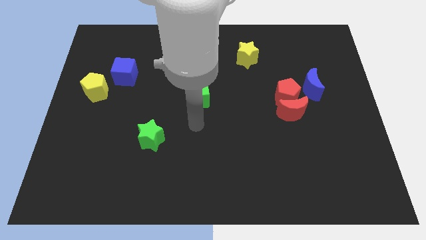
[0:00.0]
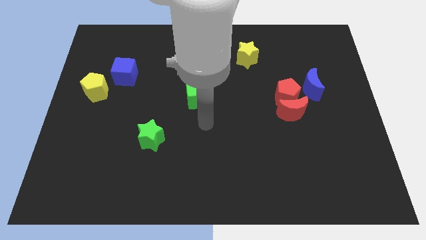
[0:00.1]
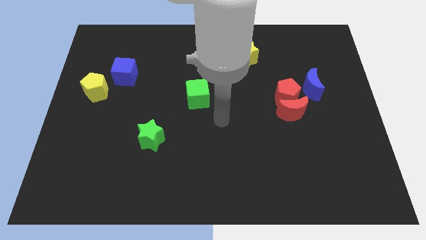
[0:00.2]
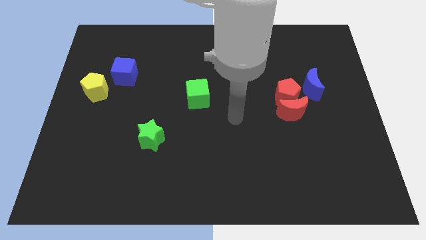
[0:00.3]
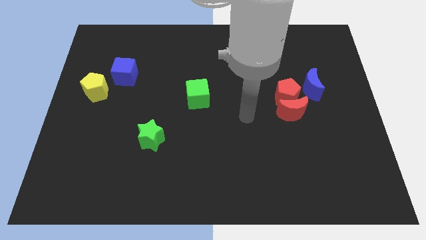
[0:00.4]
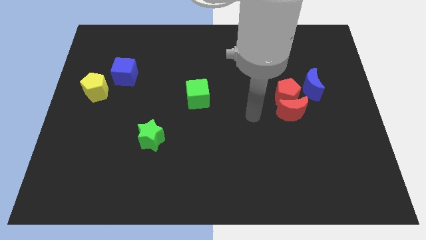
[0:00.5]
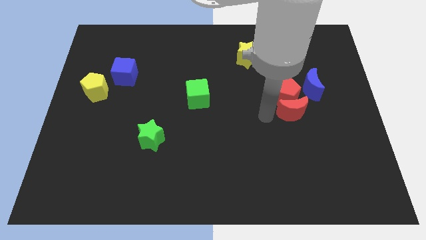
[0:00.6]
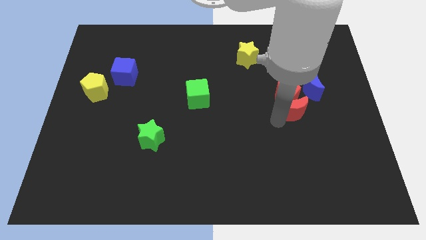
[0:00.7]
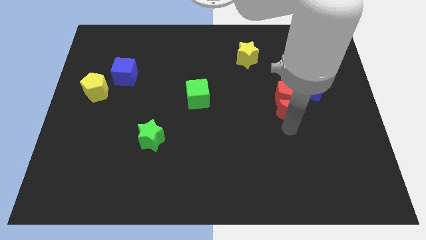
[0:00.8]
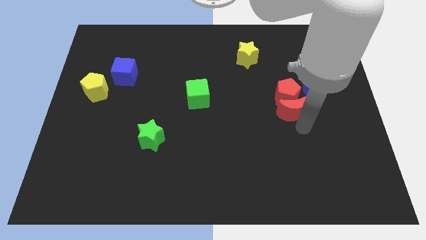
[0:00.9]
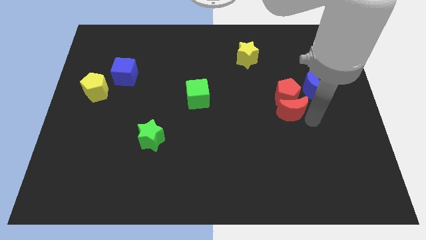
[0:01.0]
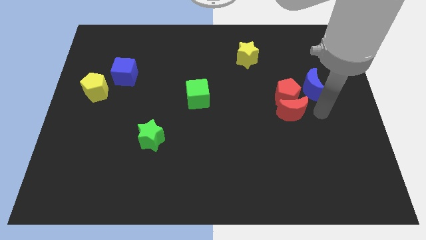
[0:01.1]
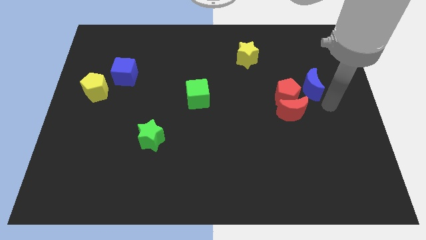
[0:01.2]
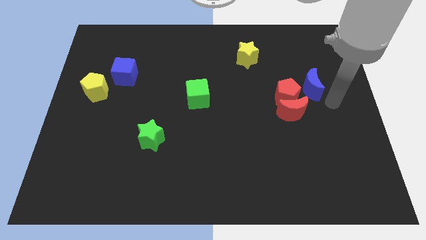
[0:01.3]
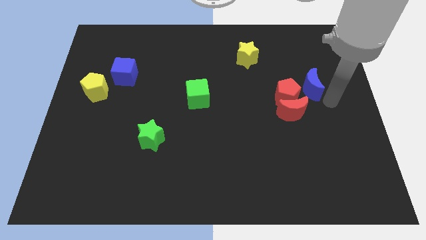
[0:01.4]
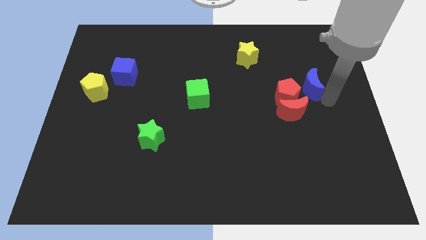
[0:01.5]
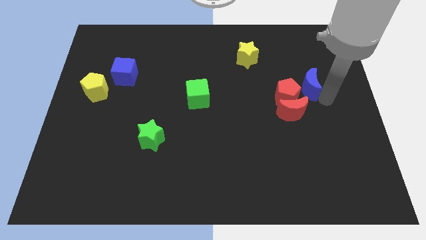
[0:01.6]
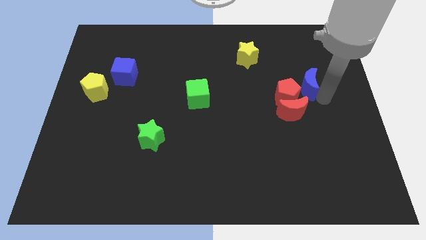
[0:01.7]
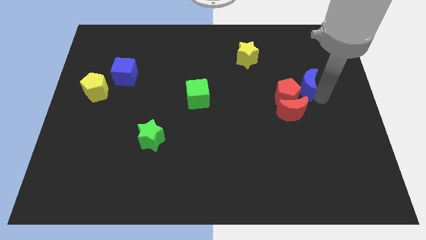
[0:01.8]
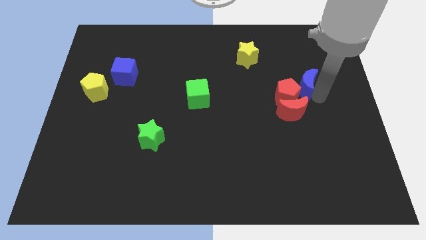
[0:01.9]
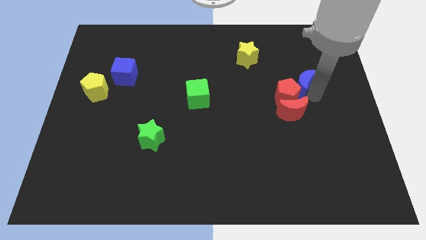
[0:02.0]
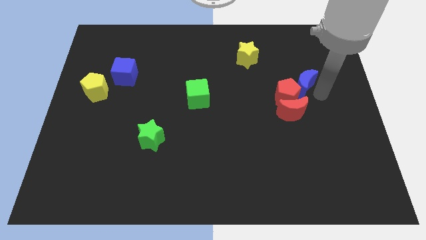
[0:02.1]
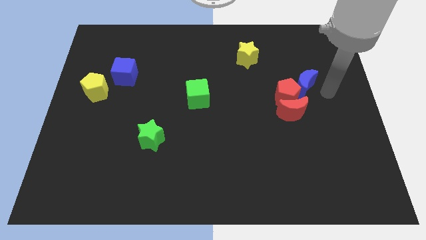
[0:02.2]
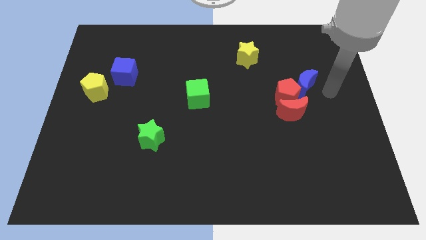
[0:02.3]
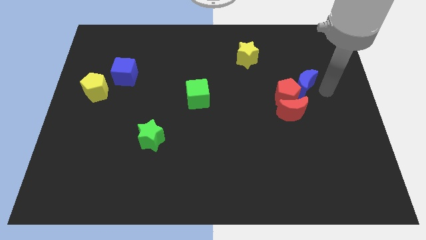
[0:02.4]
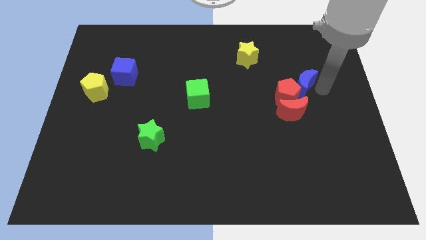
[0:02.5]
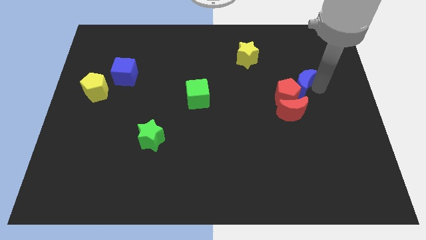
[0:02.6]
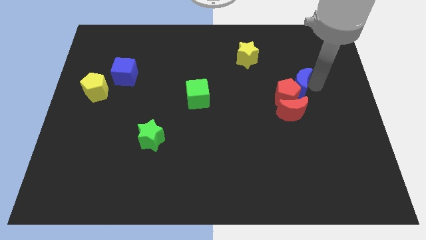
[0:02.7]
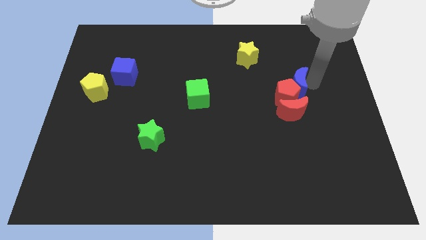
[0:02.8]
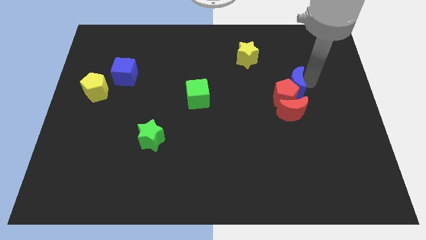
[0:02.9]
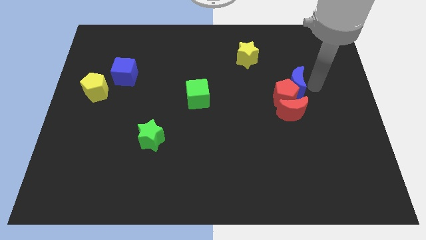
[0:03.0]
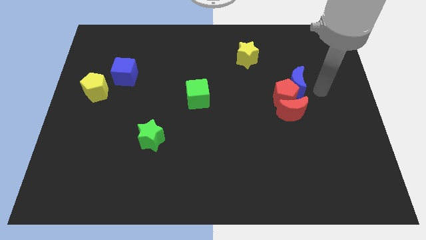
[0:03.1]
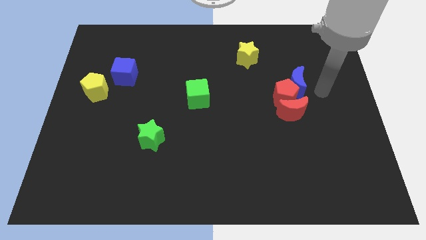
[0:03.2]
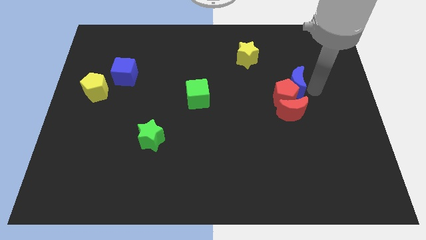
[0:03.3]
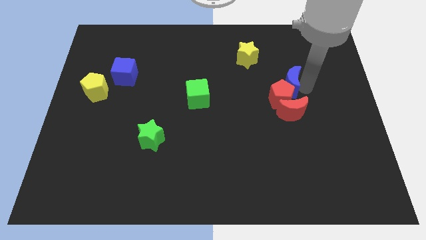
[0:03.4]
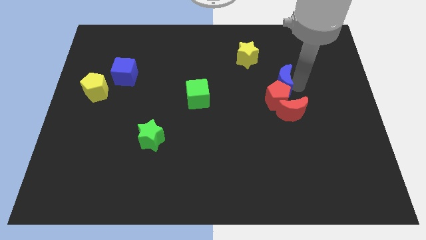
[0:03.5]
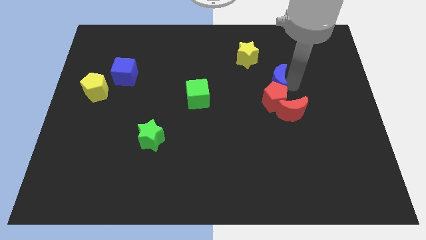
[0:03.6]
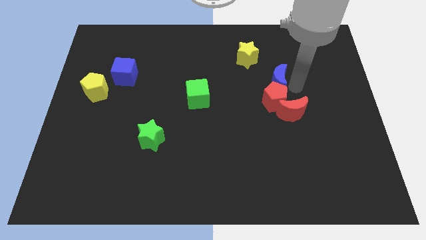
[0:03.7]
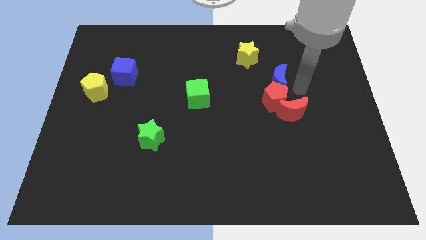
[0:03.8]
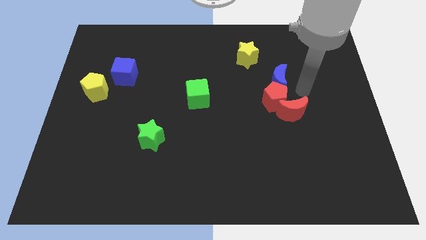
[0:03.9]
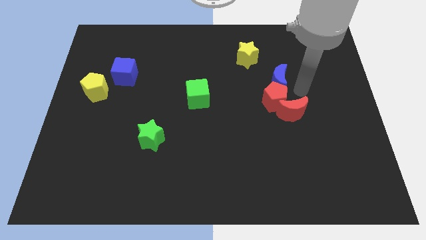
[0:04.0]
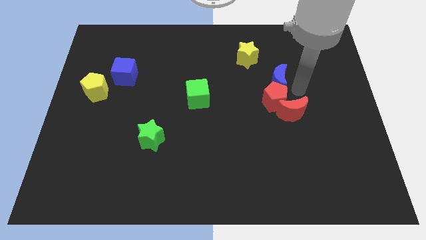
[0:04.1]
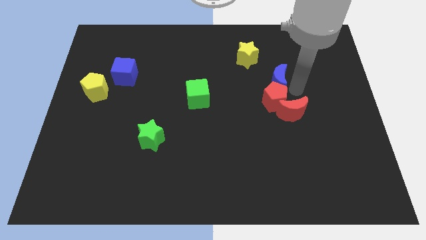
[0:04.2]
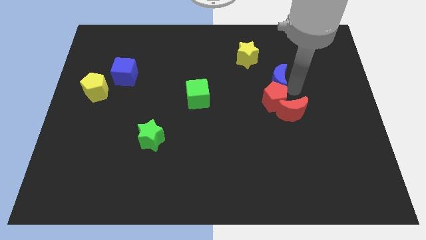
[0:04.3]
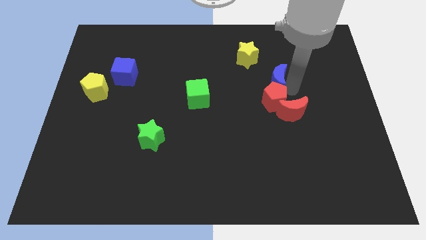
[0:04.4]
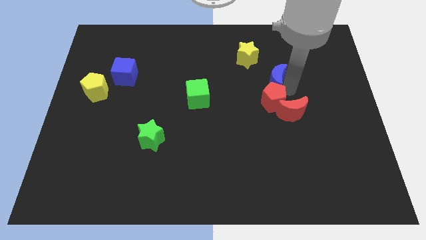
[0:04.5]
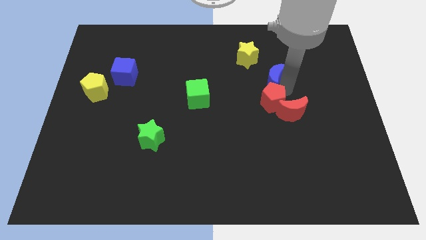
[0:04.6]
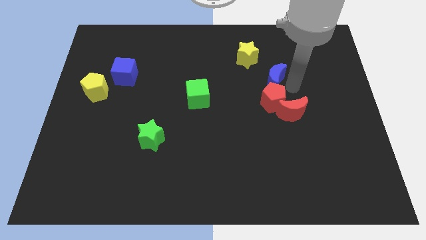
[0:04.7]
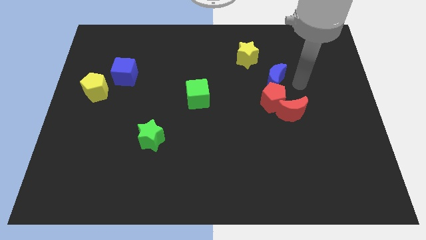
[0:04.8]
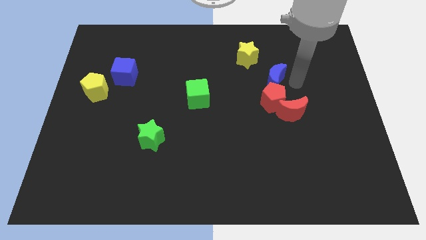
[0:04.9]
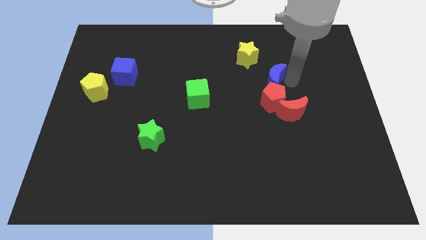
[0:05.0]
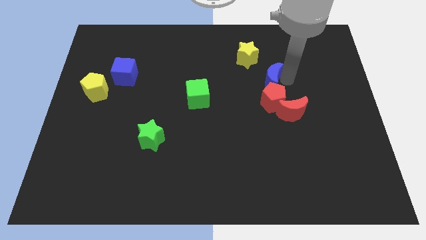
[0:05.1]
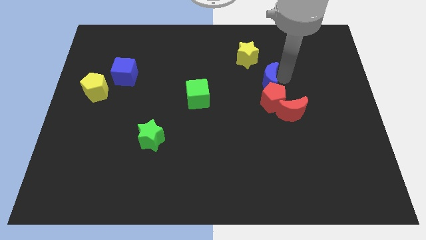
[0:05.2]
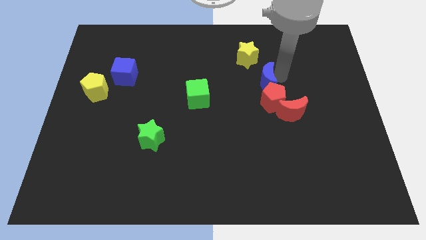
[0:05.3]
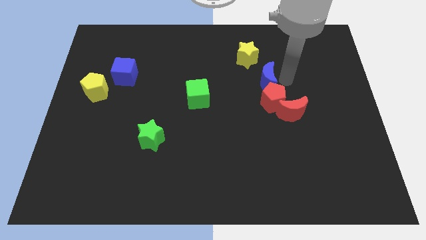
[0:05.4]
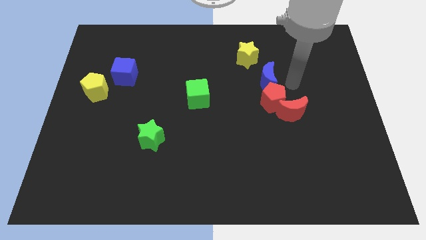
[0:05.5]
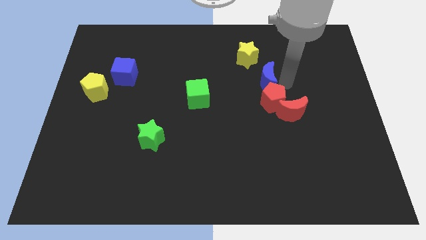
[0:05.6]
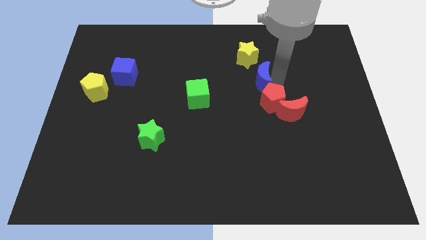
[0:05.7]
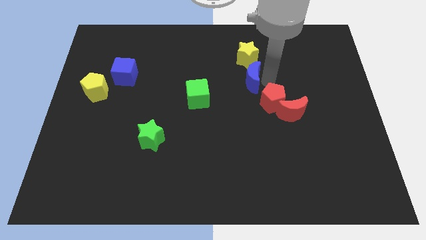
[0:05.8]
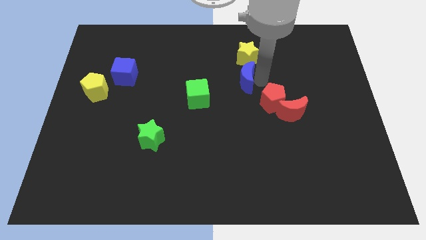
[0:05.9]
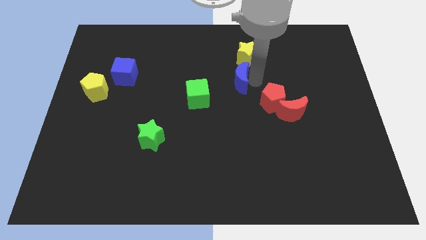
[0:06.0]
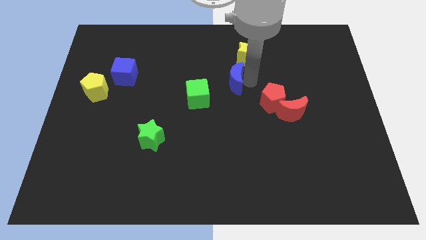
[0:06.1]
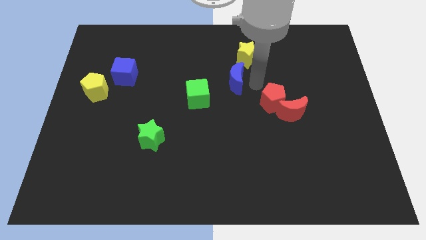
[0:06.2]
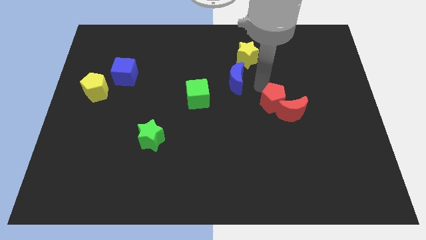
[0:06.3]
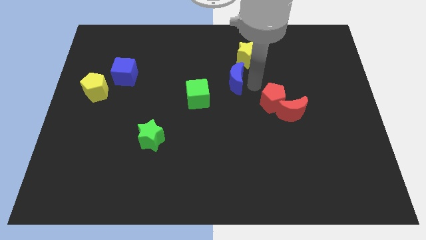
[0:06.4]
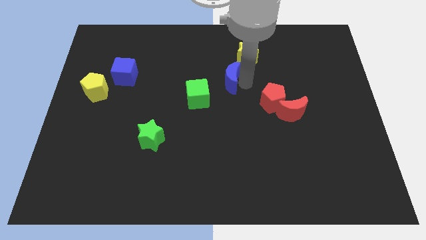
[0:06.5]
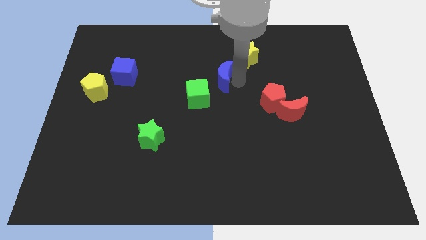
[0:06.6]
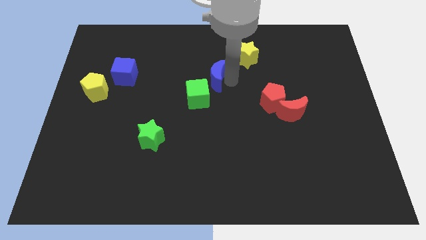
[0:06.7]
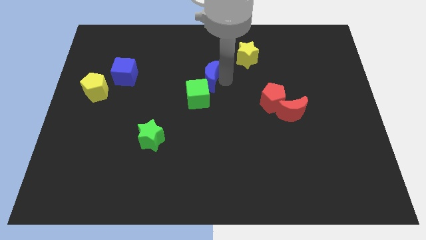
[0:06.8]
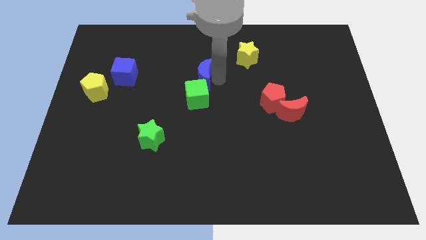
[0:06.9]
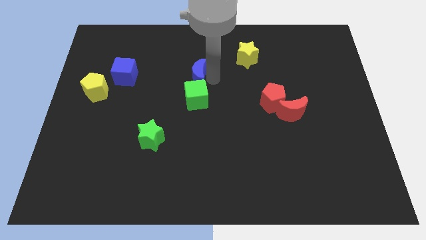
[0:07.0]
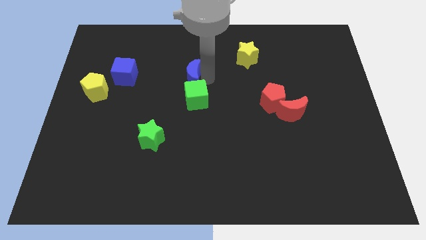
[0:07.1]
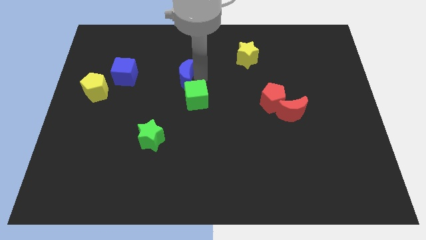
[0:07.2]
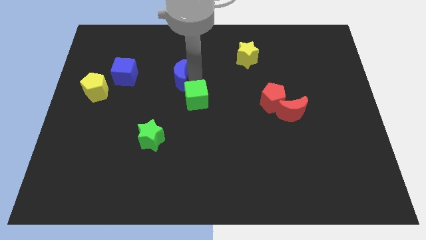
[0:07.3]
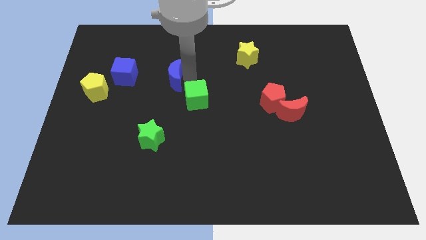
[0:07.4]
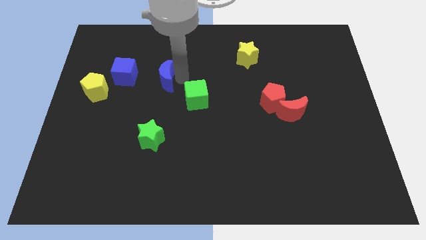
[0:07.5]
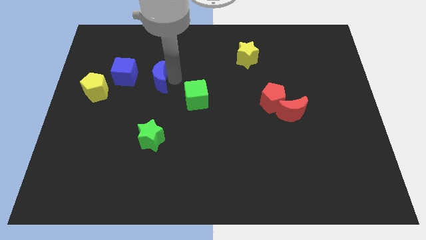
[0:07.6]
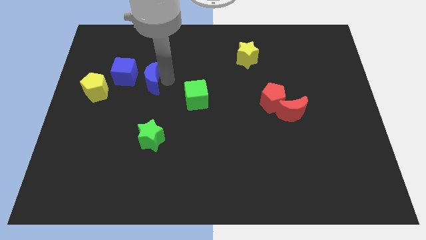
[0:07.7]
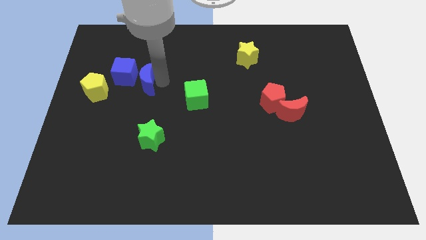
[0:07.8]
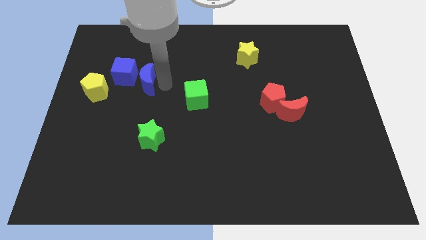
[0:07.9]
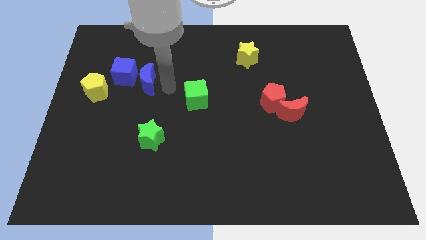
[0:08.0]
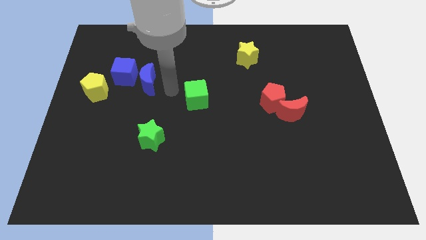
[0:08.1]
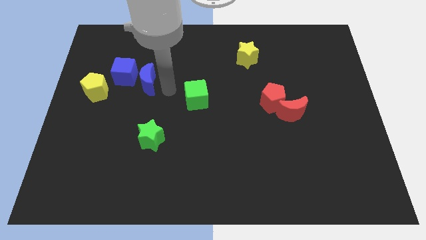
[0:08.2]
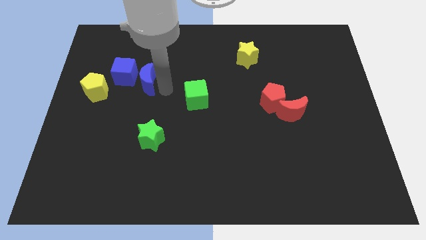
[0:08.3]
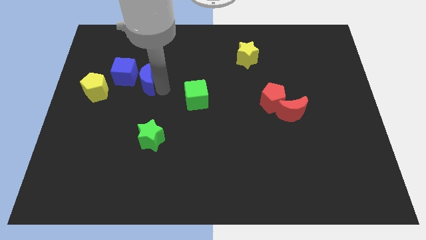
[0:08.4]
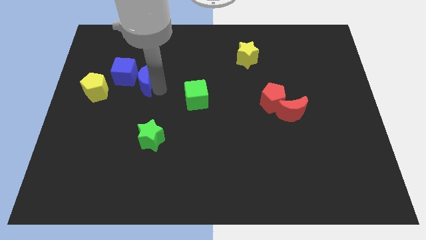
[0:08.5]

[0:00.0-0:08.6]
push the blue moon to the blue cube
